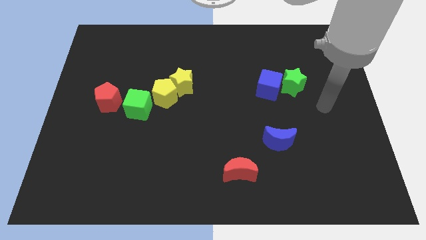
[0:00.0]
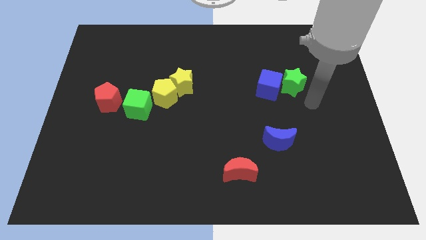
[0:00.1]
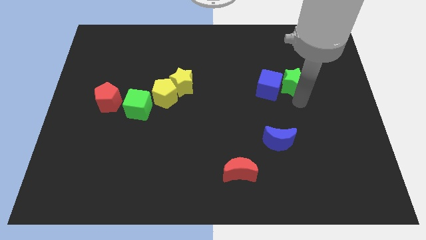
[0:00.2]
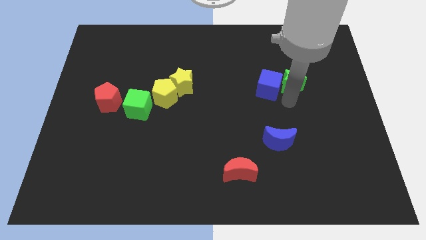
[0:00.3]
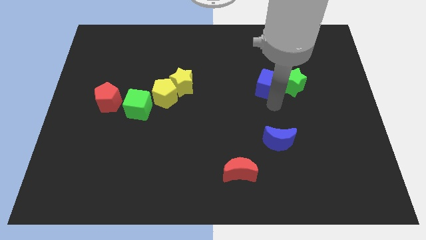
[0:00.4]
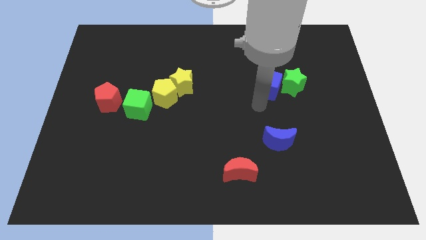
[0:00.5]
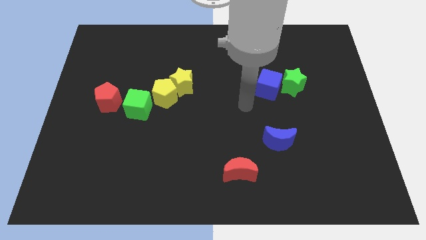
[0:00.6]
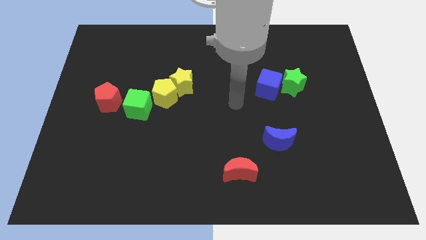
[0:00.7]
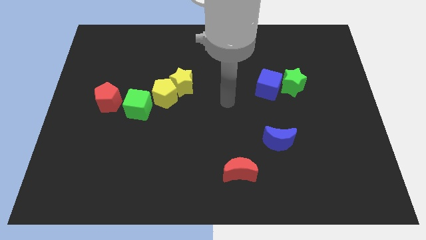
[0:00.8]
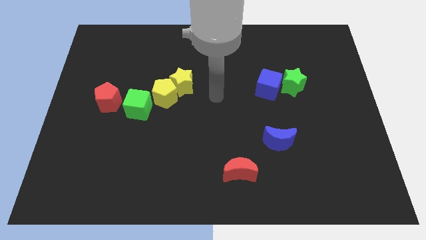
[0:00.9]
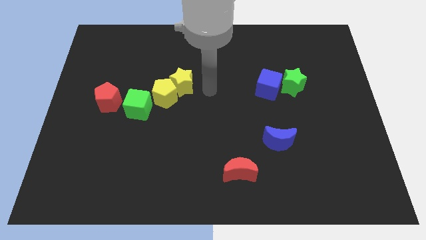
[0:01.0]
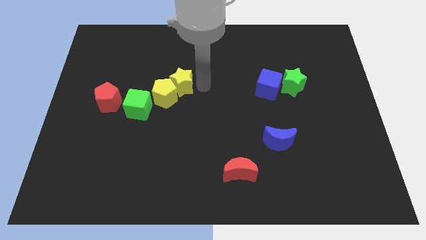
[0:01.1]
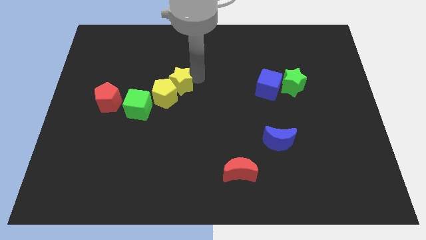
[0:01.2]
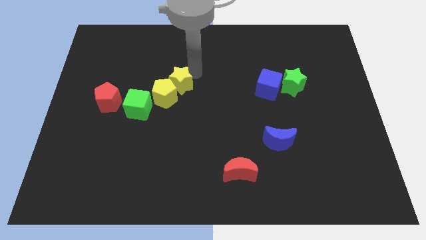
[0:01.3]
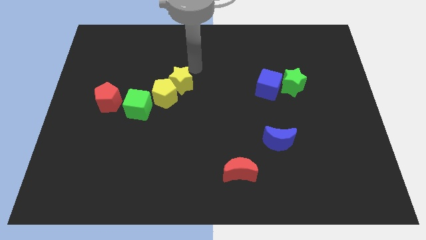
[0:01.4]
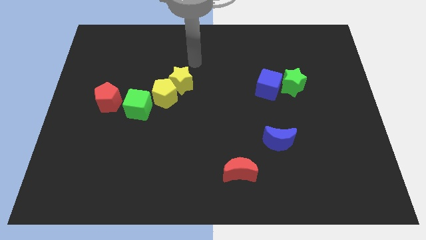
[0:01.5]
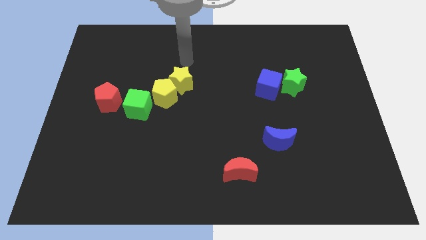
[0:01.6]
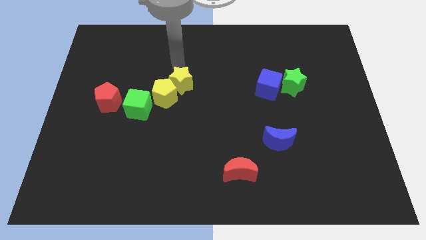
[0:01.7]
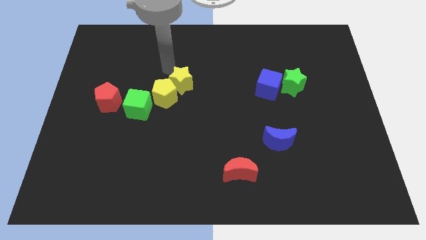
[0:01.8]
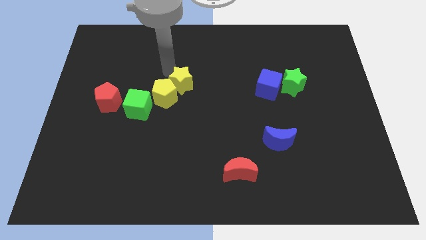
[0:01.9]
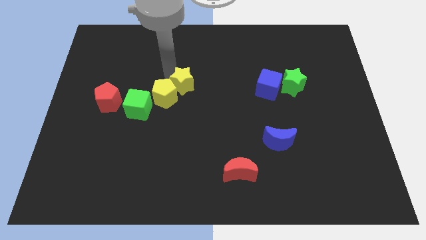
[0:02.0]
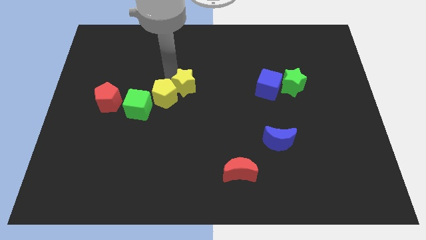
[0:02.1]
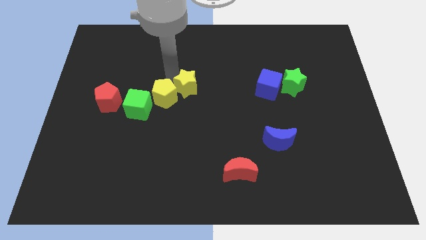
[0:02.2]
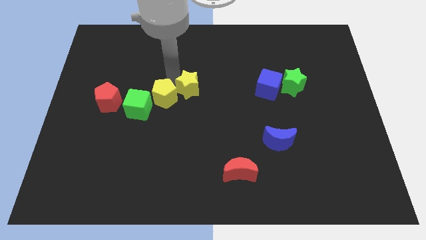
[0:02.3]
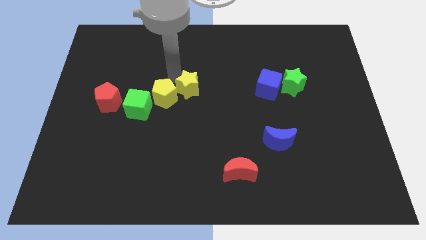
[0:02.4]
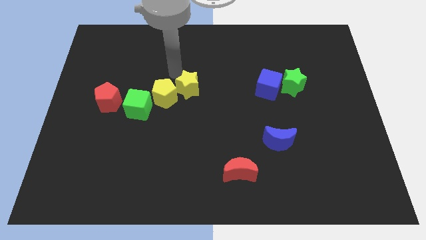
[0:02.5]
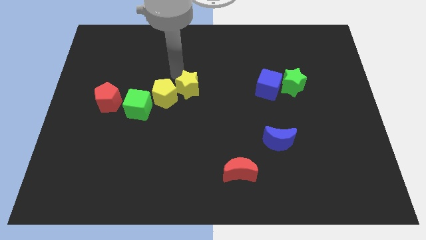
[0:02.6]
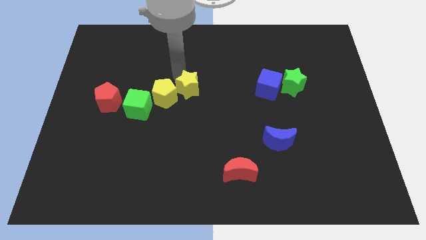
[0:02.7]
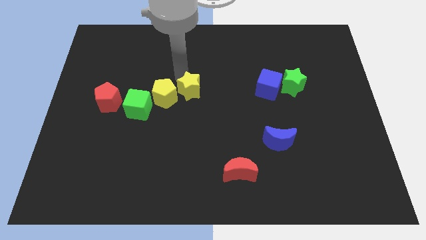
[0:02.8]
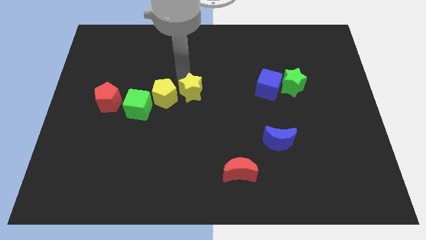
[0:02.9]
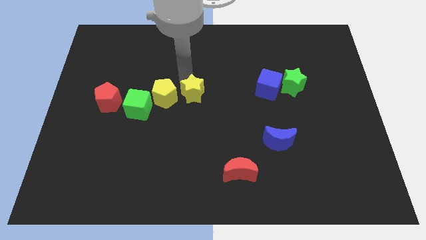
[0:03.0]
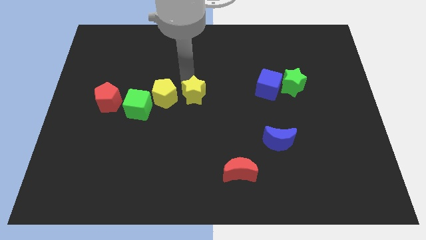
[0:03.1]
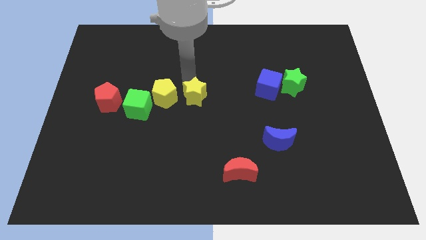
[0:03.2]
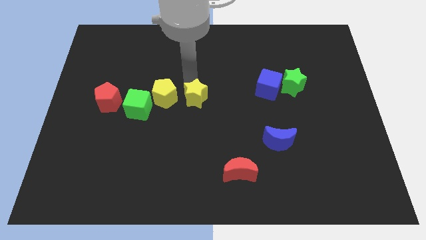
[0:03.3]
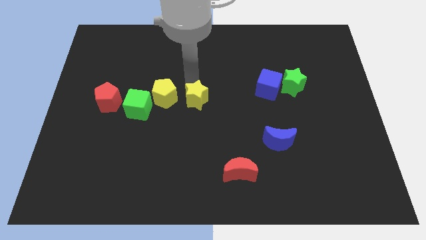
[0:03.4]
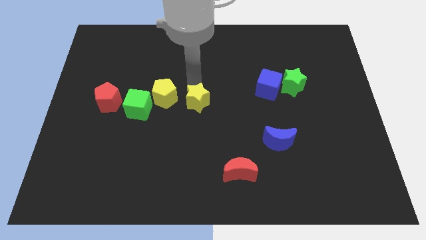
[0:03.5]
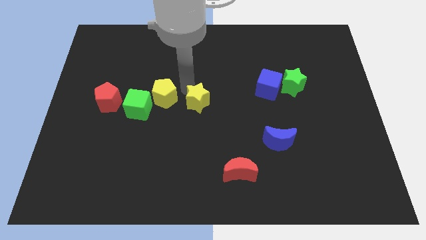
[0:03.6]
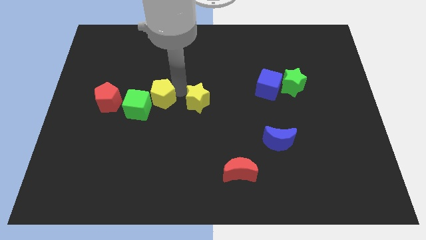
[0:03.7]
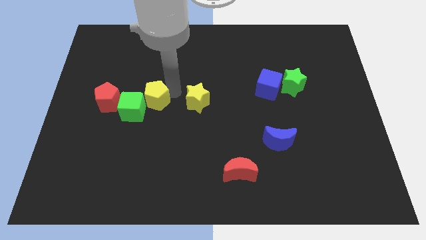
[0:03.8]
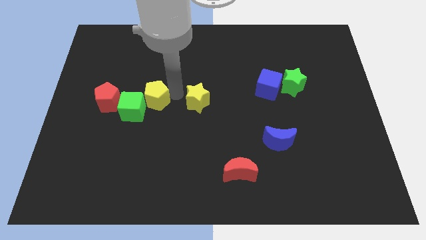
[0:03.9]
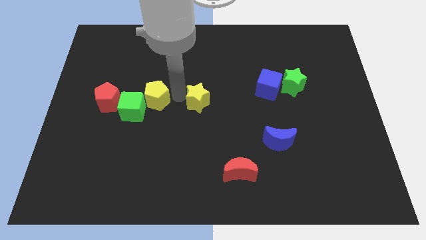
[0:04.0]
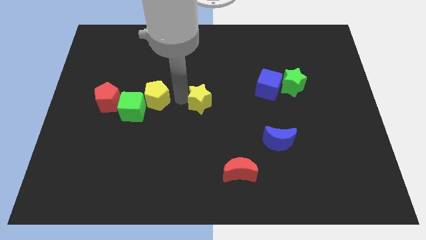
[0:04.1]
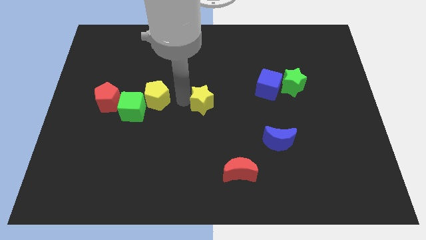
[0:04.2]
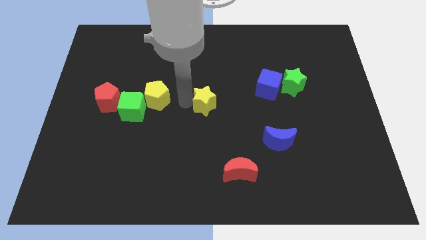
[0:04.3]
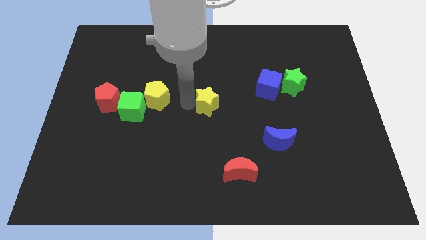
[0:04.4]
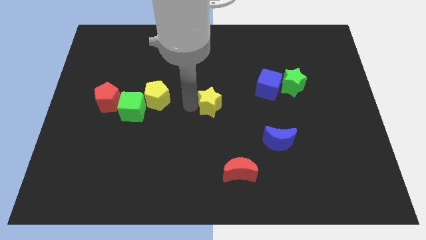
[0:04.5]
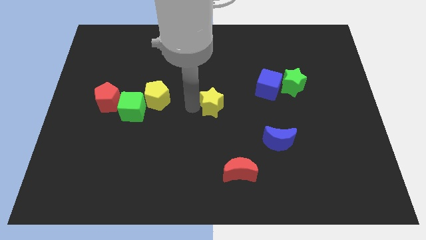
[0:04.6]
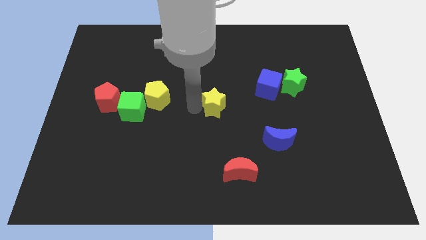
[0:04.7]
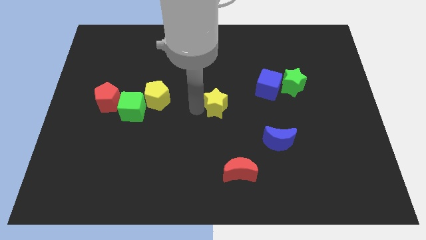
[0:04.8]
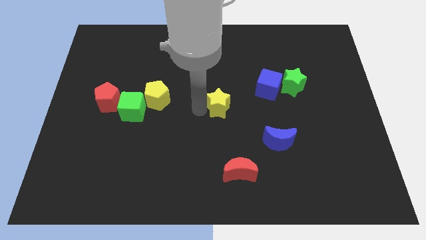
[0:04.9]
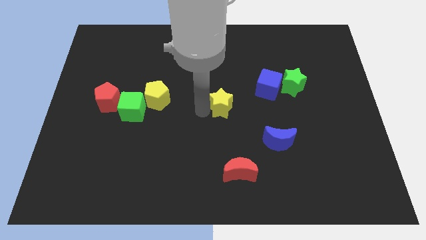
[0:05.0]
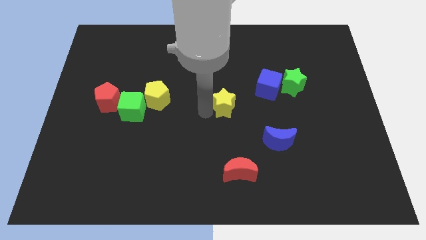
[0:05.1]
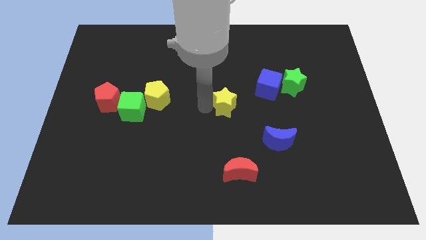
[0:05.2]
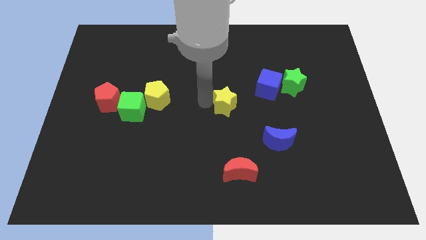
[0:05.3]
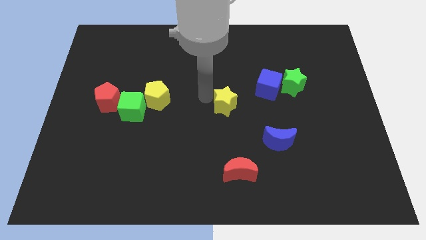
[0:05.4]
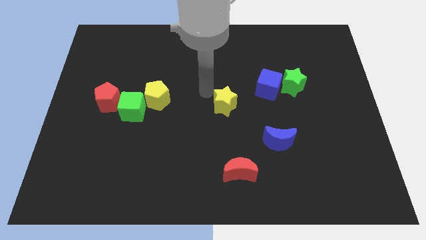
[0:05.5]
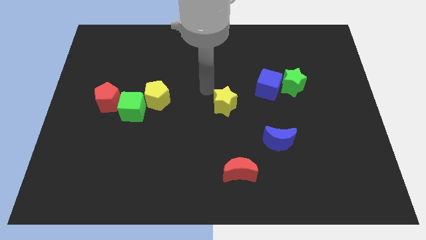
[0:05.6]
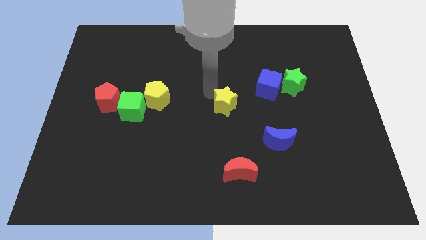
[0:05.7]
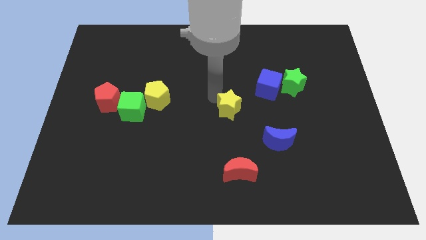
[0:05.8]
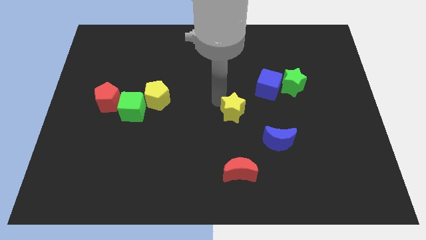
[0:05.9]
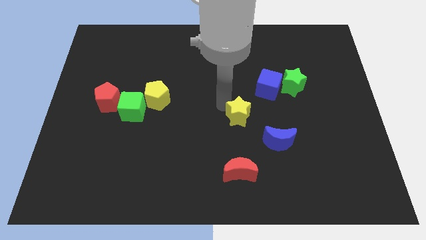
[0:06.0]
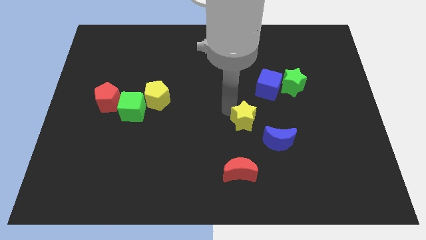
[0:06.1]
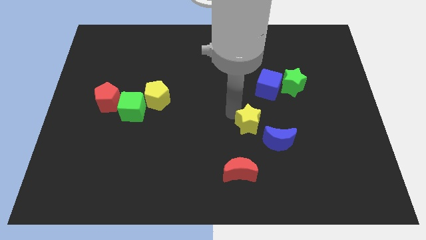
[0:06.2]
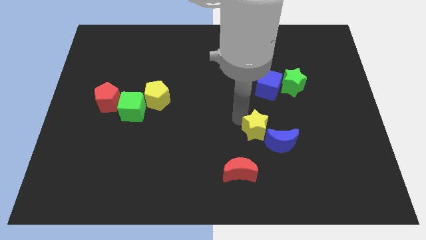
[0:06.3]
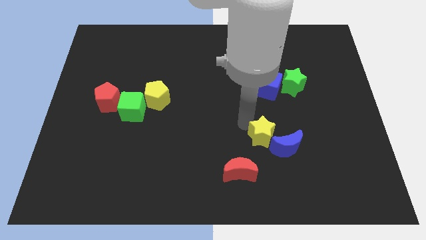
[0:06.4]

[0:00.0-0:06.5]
slide the yellow star towards the blue moon

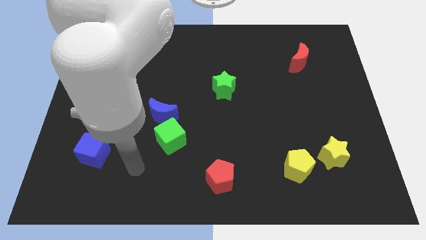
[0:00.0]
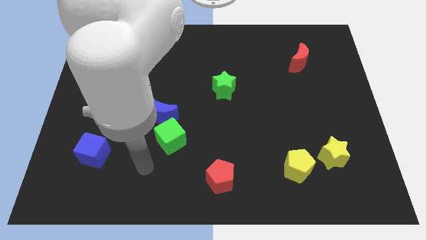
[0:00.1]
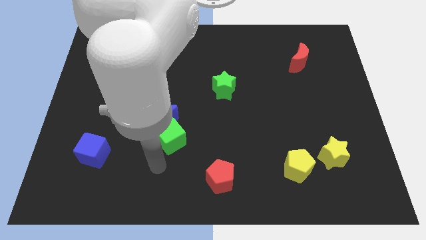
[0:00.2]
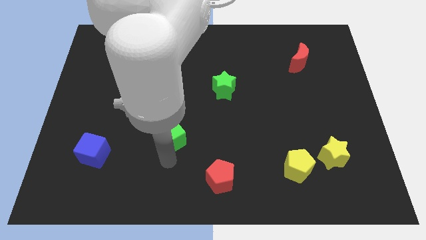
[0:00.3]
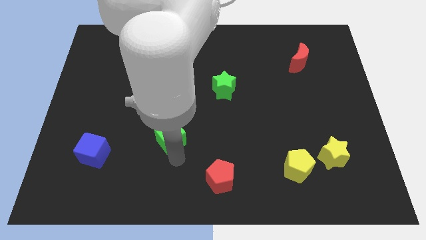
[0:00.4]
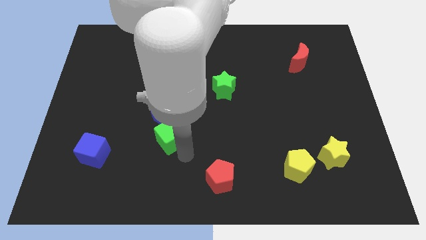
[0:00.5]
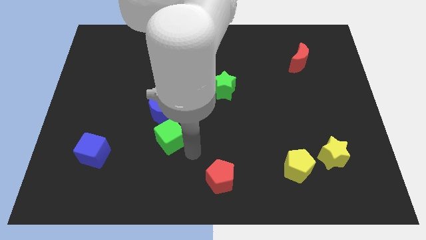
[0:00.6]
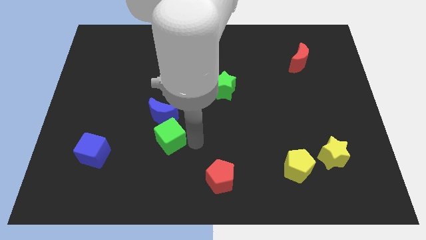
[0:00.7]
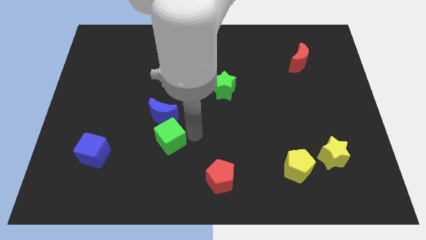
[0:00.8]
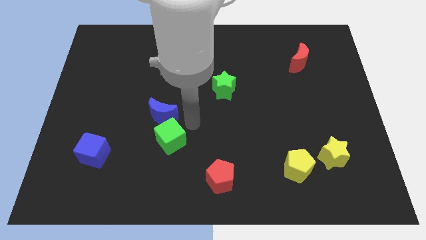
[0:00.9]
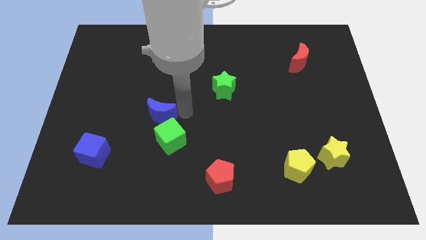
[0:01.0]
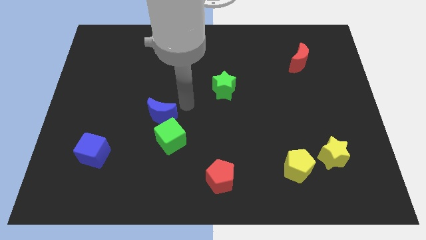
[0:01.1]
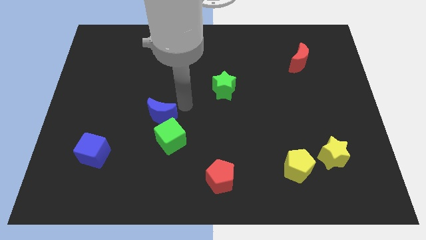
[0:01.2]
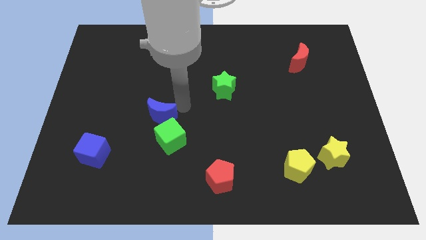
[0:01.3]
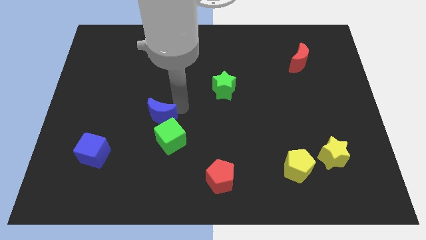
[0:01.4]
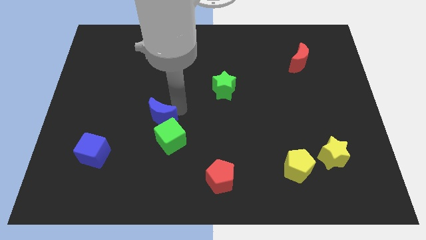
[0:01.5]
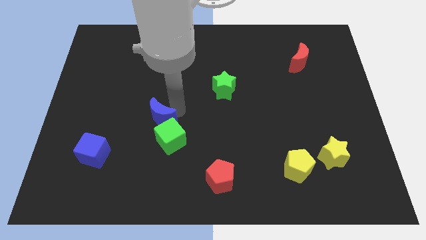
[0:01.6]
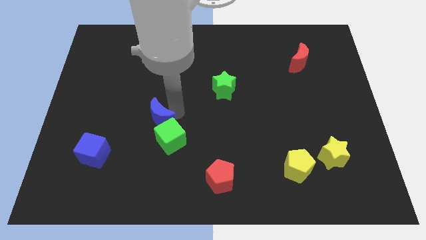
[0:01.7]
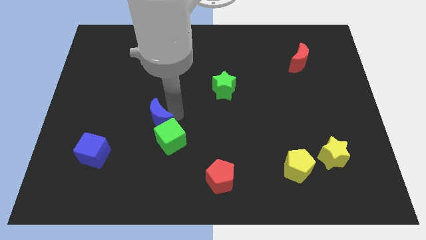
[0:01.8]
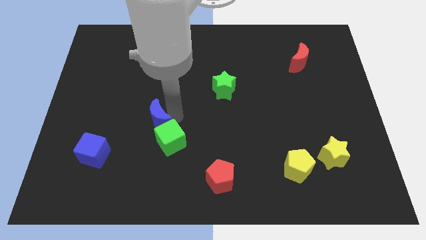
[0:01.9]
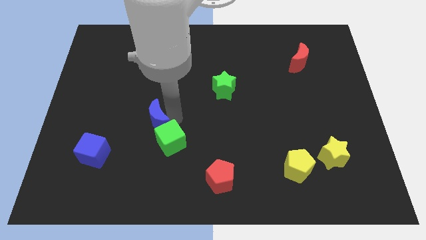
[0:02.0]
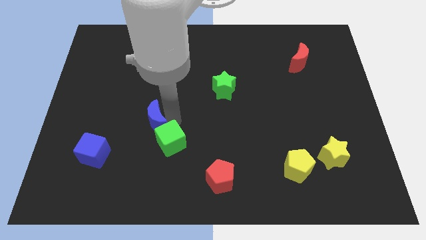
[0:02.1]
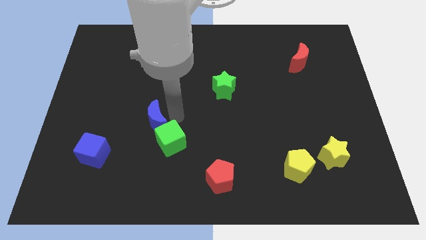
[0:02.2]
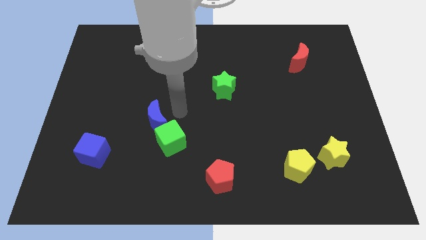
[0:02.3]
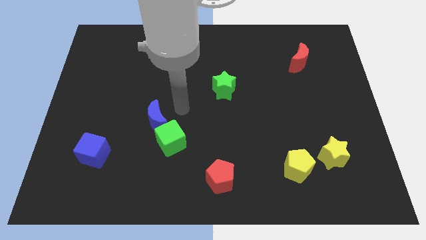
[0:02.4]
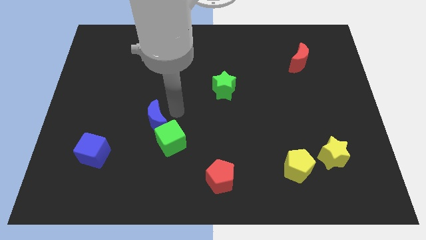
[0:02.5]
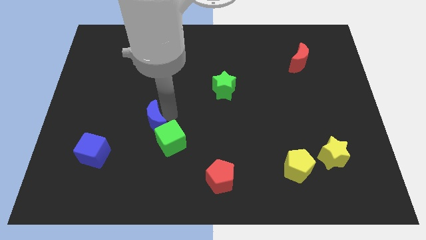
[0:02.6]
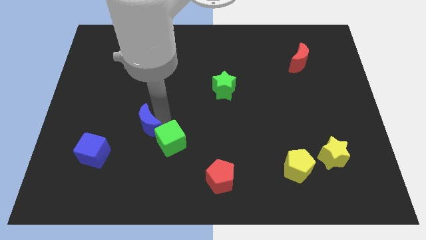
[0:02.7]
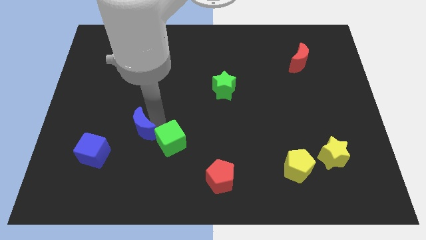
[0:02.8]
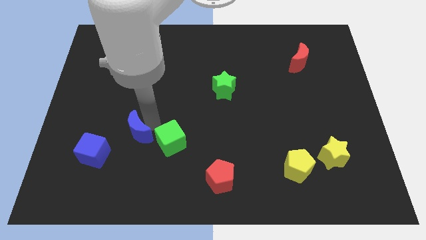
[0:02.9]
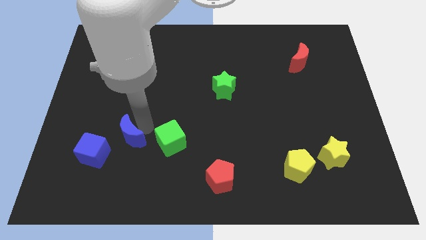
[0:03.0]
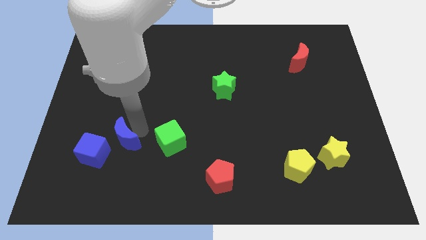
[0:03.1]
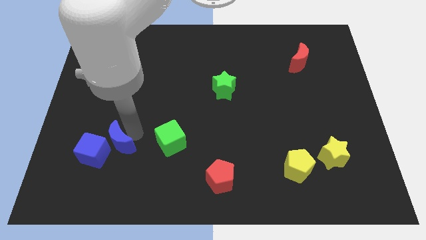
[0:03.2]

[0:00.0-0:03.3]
slide the blue moon next to the blue cube
